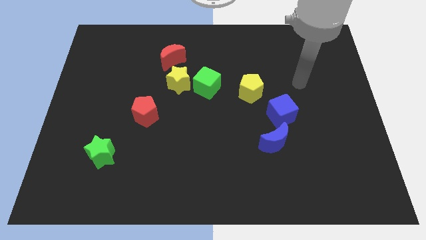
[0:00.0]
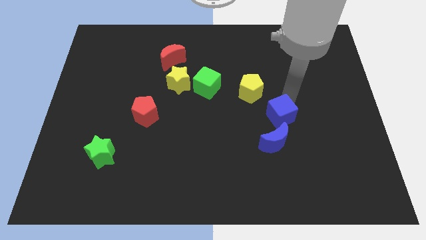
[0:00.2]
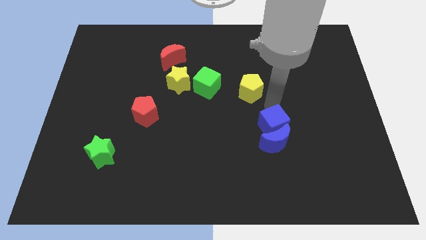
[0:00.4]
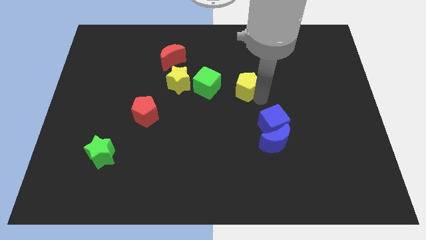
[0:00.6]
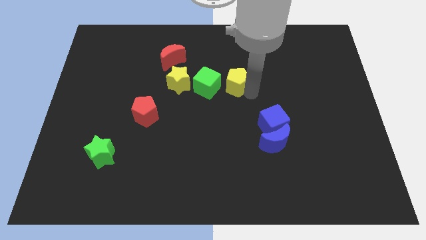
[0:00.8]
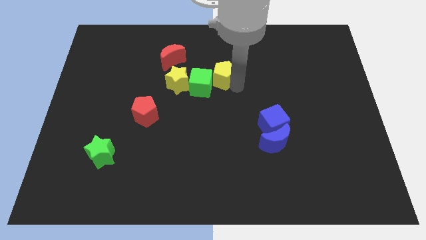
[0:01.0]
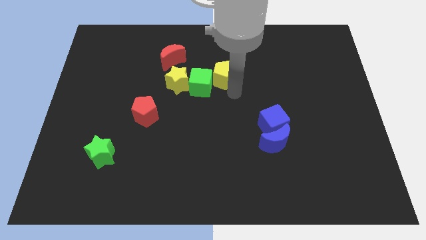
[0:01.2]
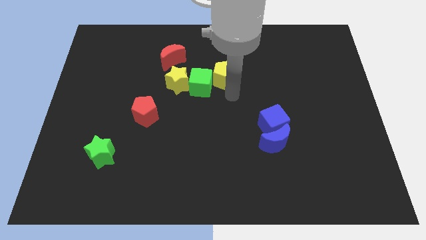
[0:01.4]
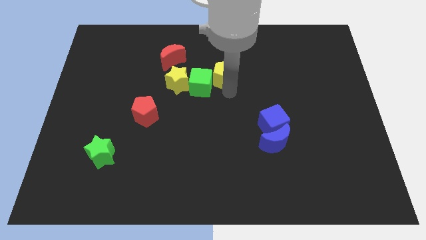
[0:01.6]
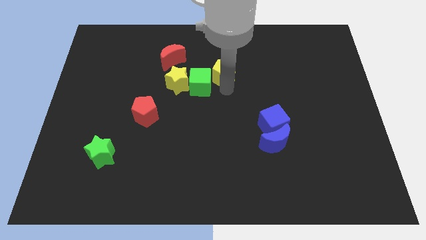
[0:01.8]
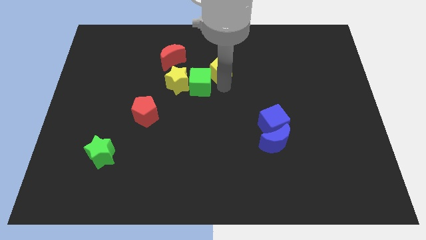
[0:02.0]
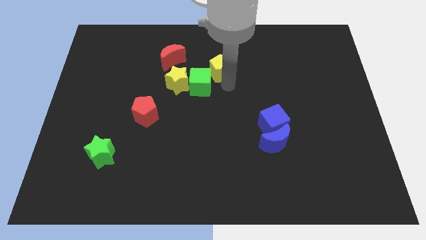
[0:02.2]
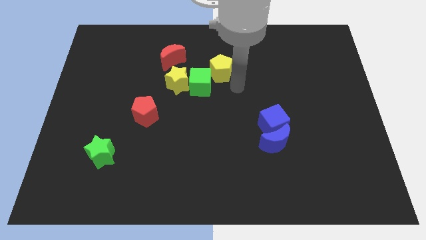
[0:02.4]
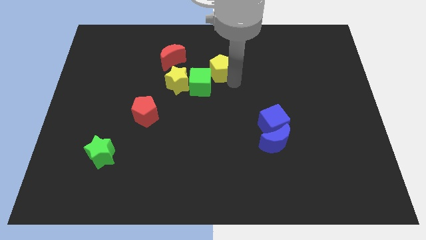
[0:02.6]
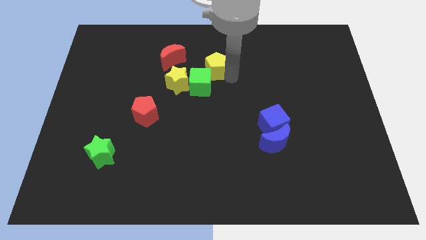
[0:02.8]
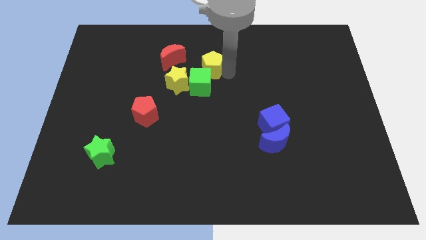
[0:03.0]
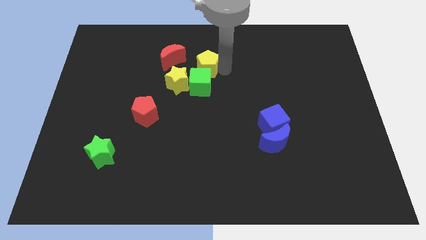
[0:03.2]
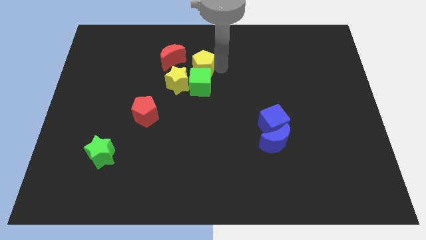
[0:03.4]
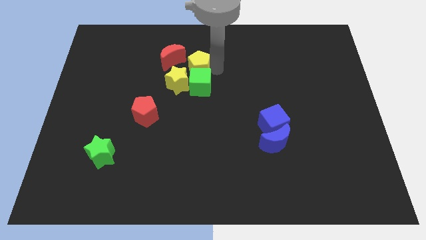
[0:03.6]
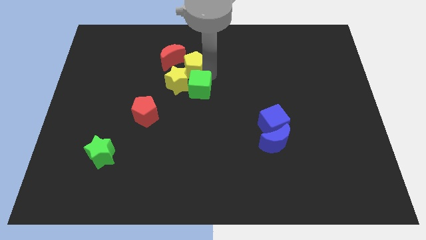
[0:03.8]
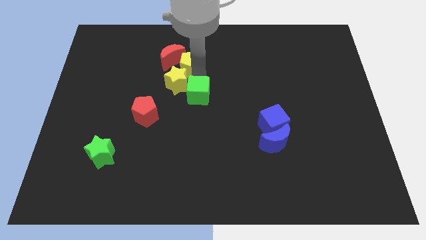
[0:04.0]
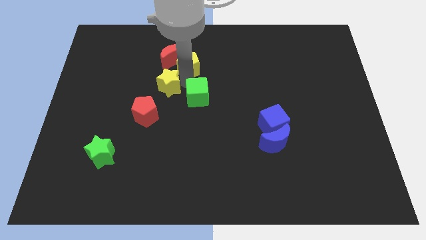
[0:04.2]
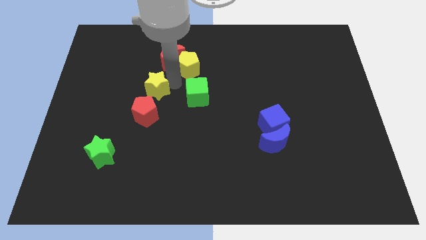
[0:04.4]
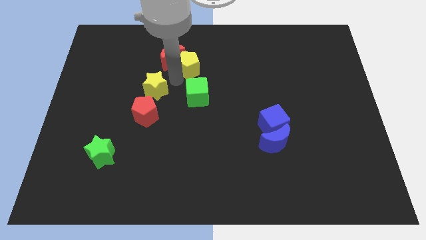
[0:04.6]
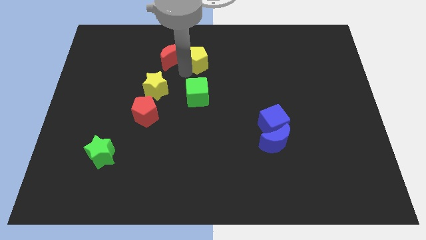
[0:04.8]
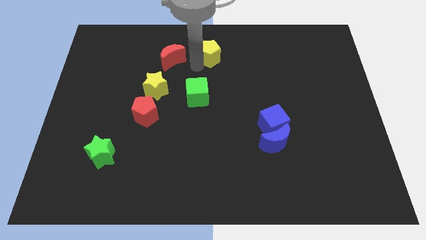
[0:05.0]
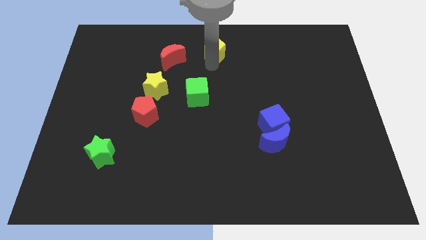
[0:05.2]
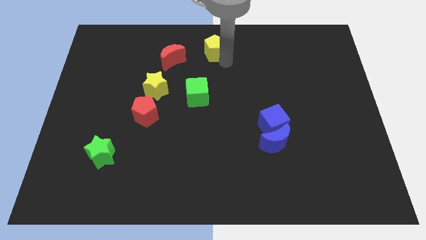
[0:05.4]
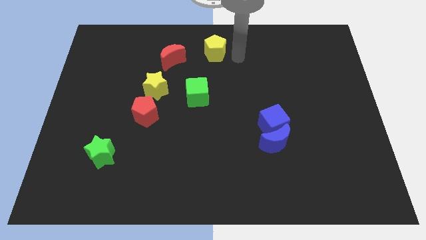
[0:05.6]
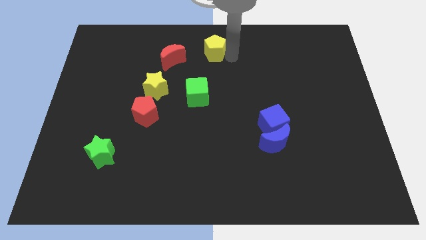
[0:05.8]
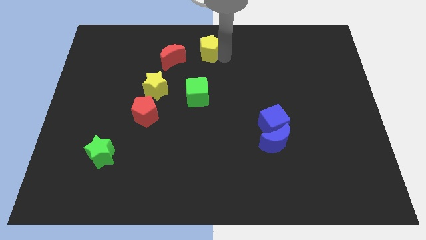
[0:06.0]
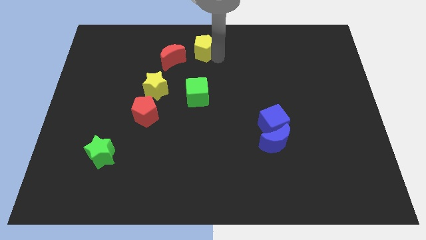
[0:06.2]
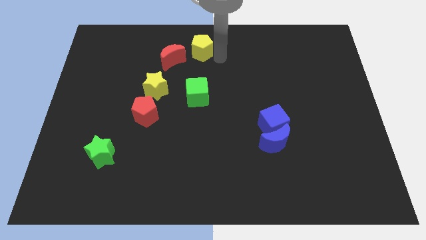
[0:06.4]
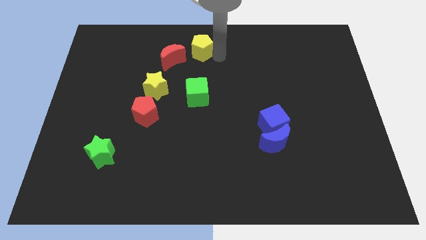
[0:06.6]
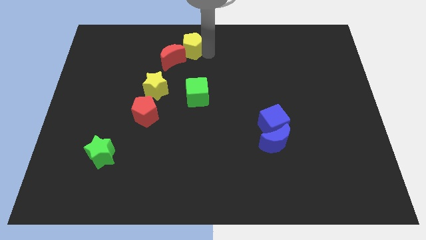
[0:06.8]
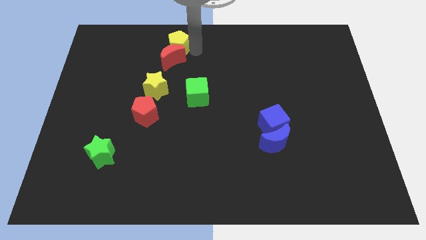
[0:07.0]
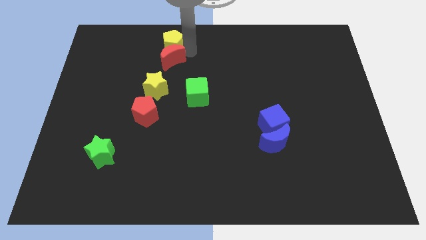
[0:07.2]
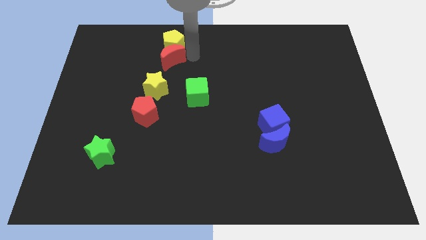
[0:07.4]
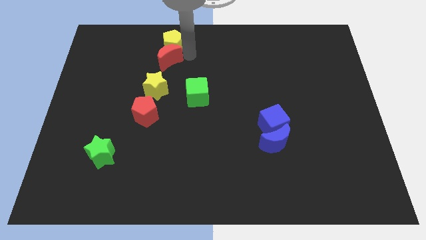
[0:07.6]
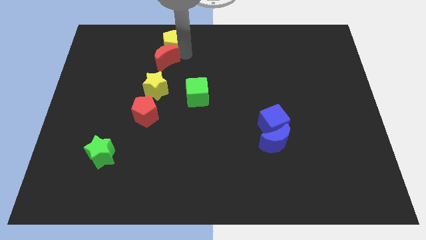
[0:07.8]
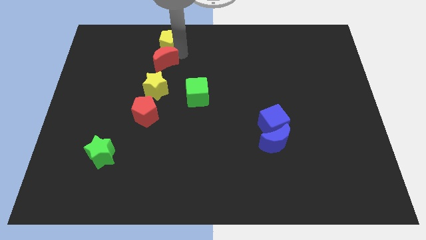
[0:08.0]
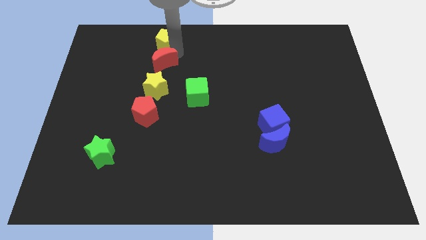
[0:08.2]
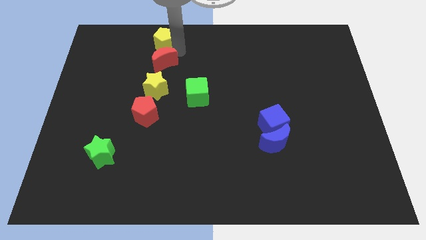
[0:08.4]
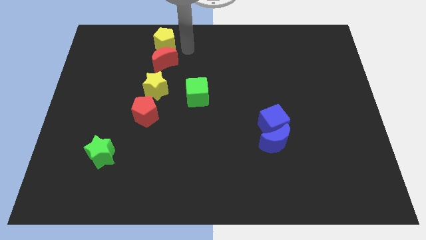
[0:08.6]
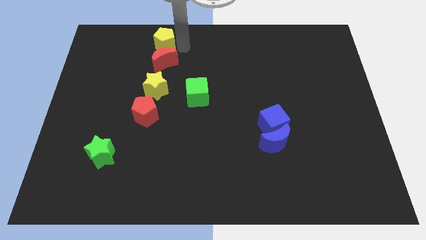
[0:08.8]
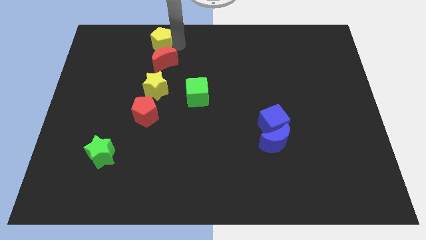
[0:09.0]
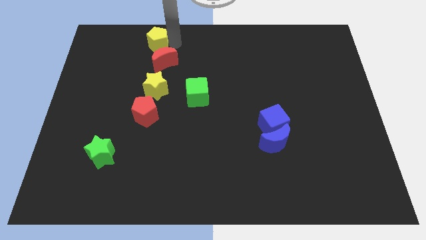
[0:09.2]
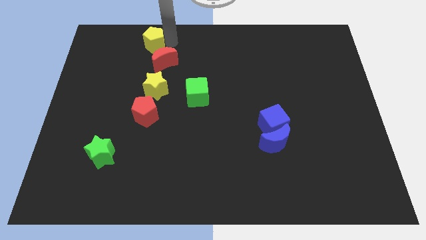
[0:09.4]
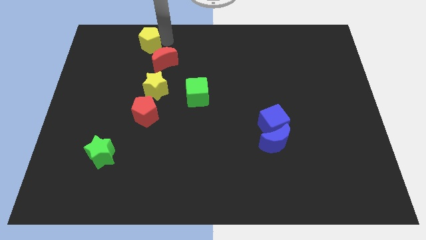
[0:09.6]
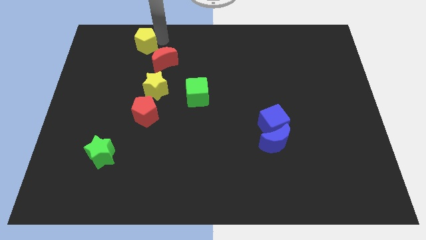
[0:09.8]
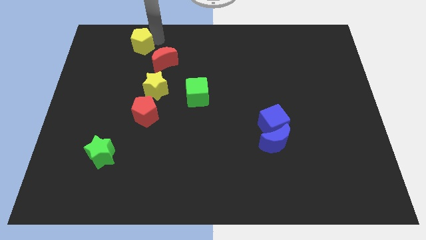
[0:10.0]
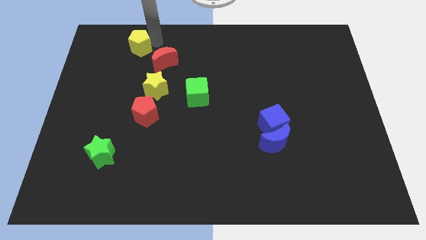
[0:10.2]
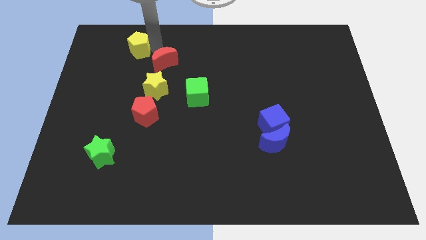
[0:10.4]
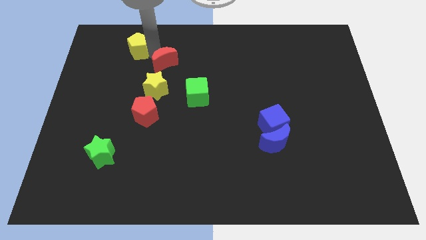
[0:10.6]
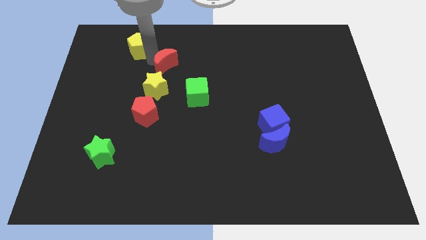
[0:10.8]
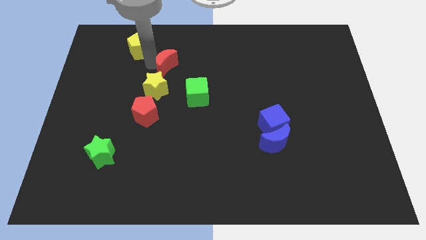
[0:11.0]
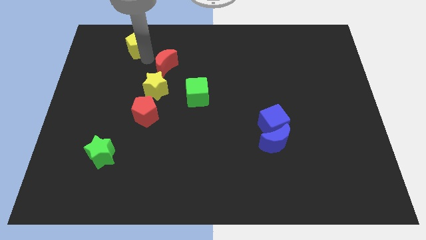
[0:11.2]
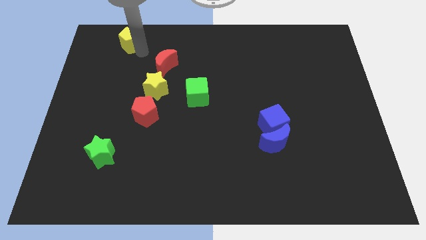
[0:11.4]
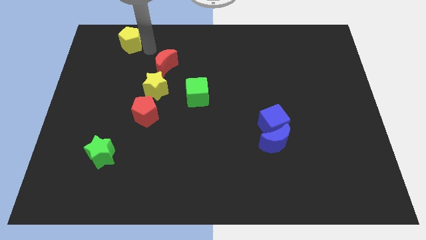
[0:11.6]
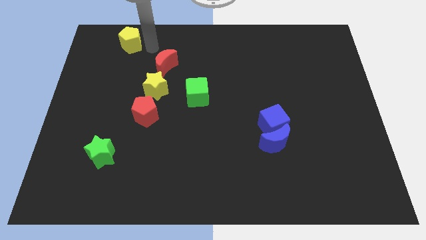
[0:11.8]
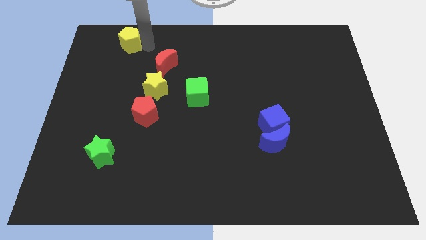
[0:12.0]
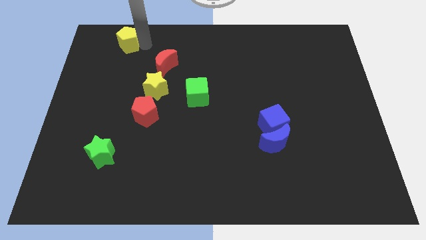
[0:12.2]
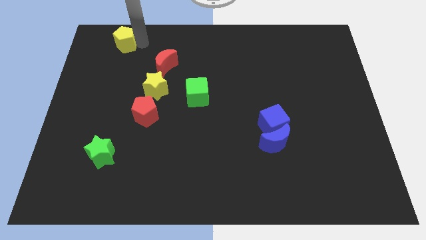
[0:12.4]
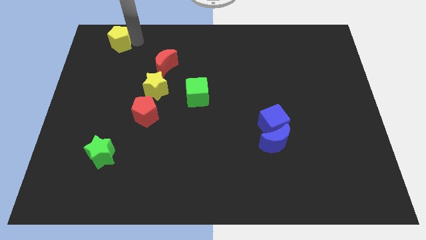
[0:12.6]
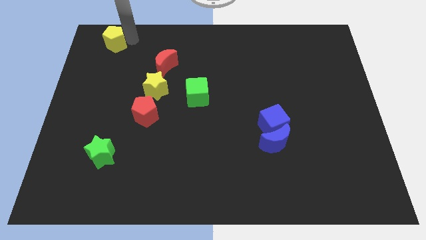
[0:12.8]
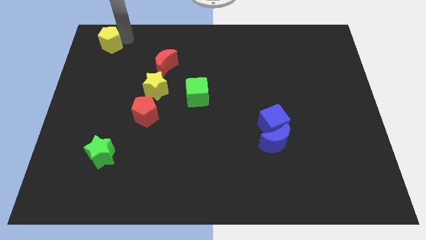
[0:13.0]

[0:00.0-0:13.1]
slide the yellow pentagon to the top left of the board
